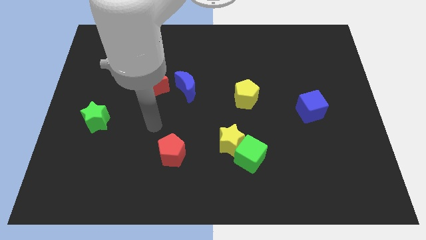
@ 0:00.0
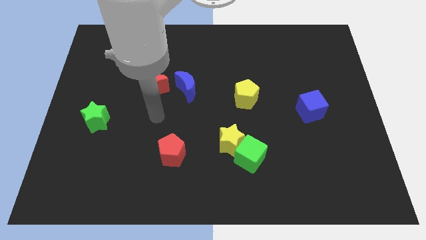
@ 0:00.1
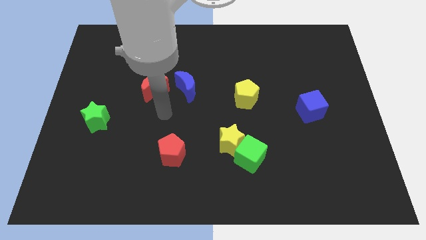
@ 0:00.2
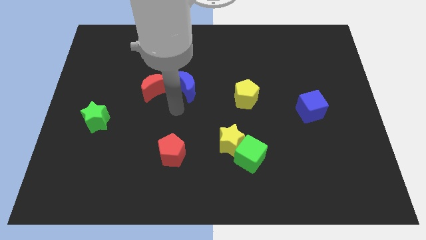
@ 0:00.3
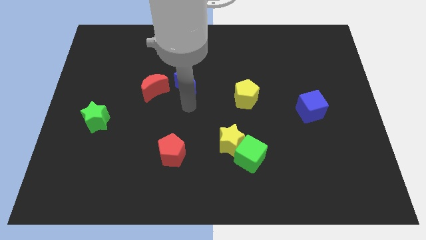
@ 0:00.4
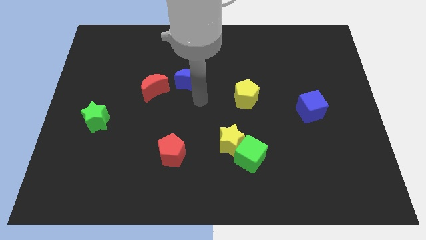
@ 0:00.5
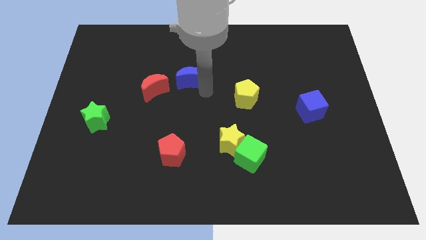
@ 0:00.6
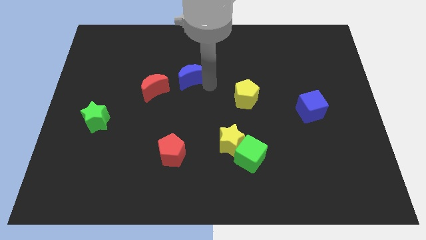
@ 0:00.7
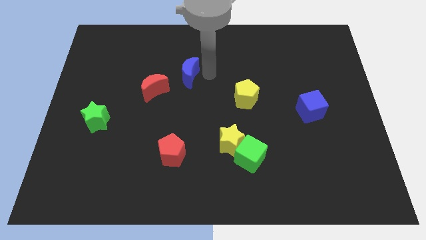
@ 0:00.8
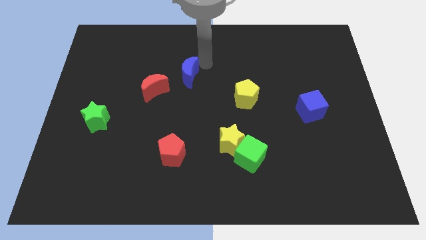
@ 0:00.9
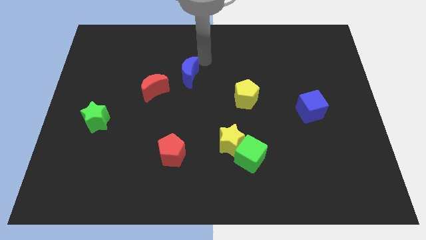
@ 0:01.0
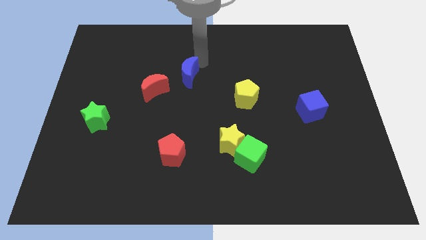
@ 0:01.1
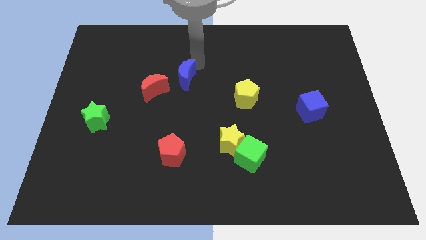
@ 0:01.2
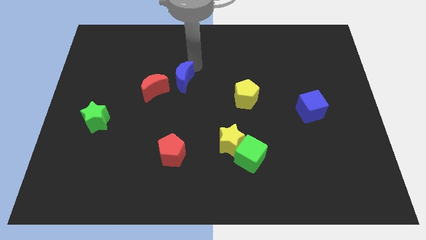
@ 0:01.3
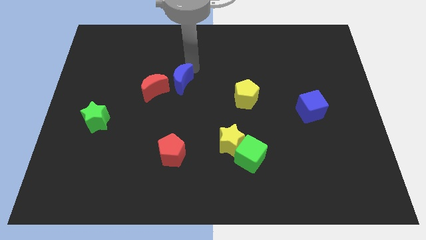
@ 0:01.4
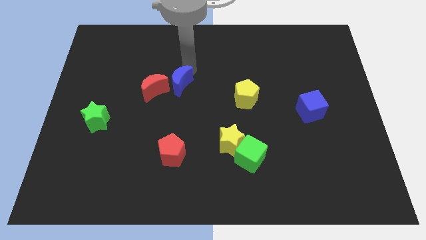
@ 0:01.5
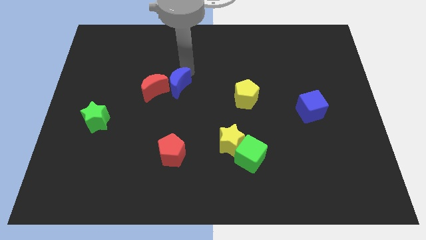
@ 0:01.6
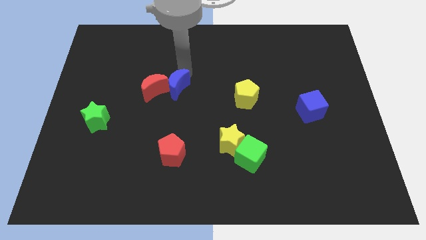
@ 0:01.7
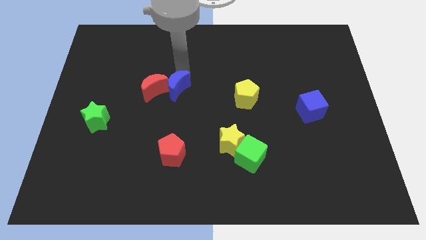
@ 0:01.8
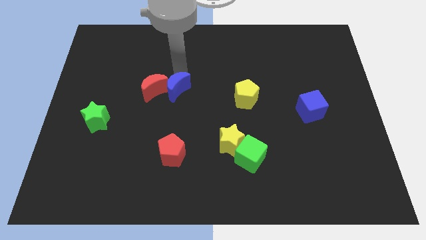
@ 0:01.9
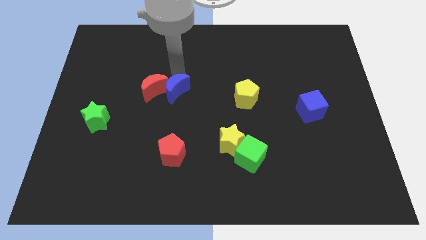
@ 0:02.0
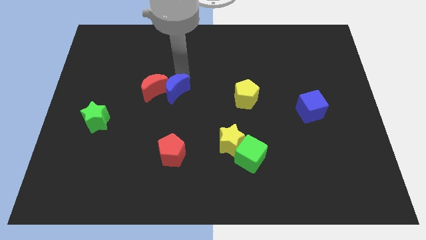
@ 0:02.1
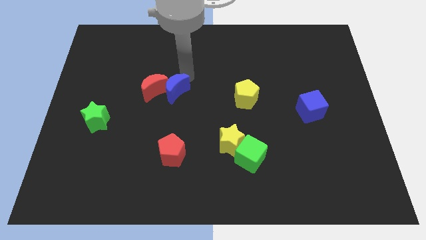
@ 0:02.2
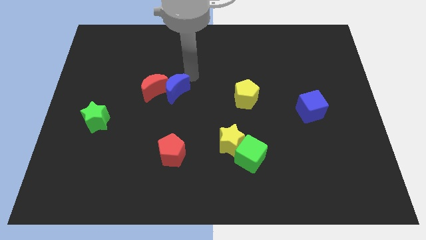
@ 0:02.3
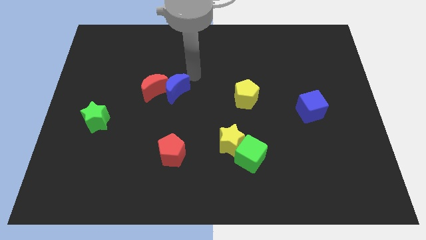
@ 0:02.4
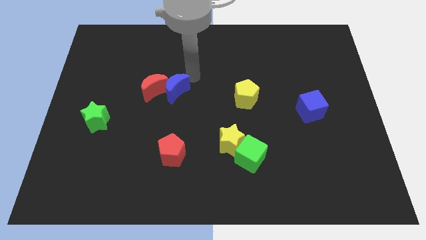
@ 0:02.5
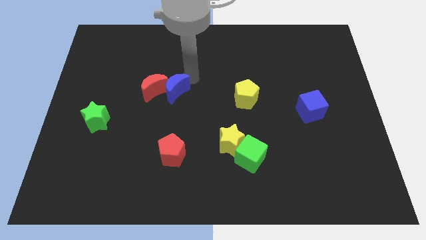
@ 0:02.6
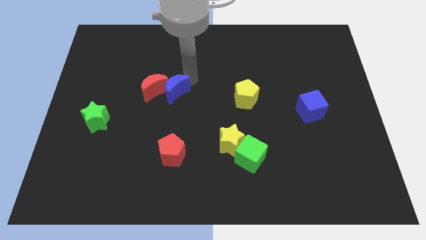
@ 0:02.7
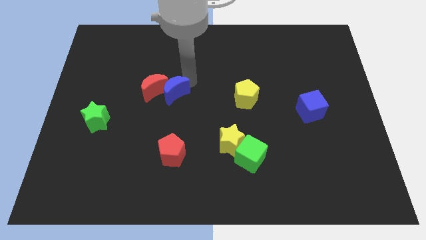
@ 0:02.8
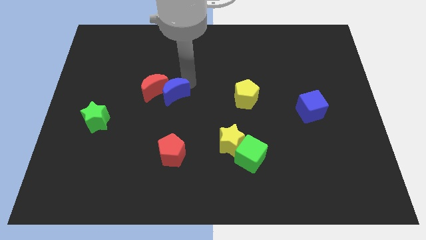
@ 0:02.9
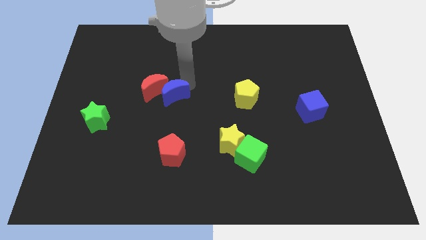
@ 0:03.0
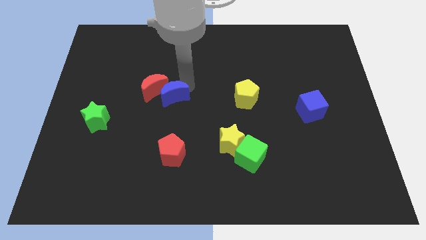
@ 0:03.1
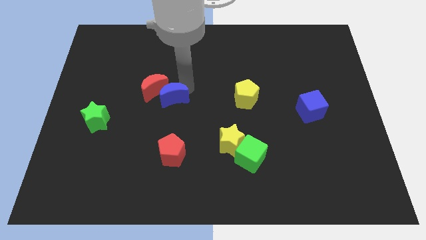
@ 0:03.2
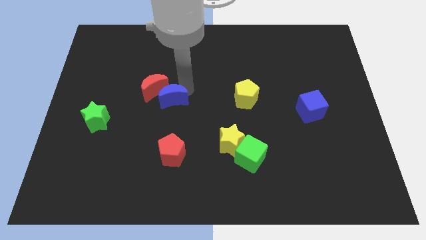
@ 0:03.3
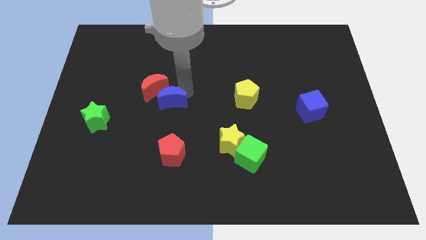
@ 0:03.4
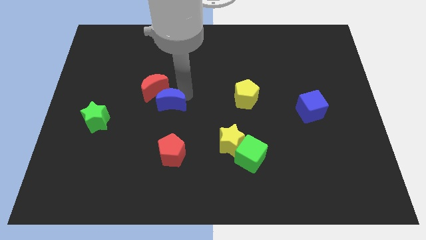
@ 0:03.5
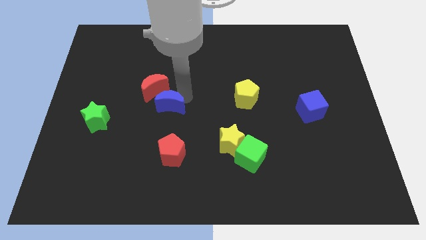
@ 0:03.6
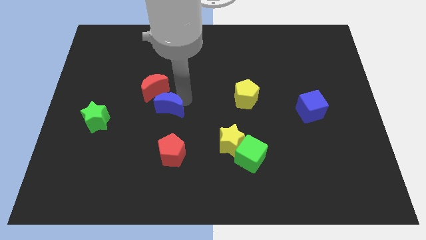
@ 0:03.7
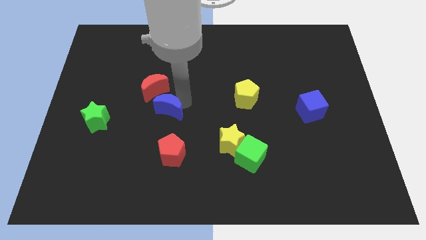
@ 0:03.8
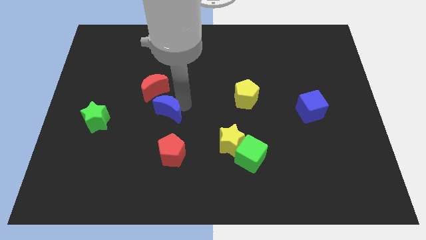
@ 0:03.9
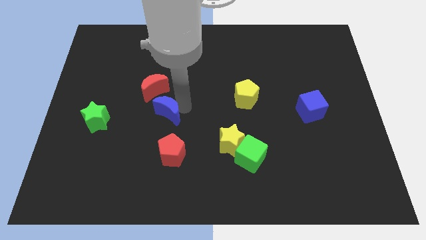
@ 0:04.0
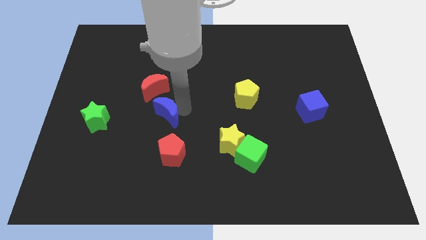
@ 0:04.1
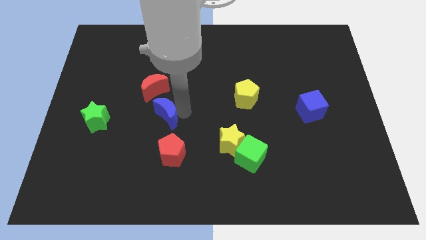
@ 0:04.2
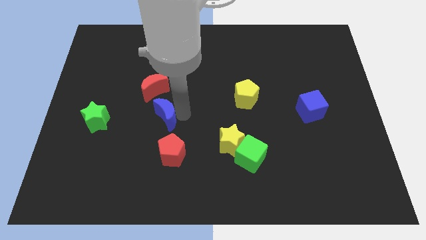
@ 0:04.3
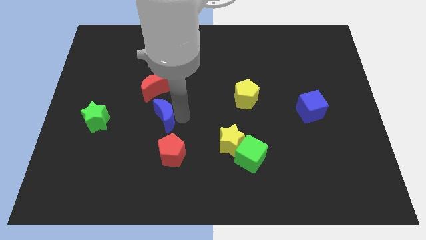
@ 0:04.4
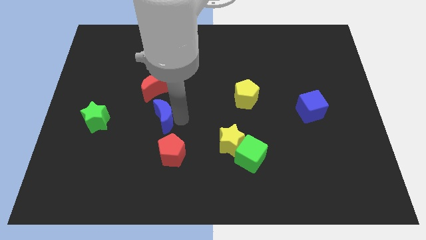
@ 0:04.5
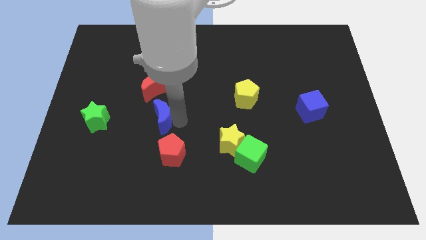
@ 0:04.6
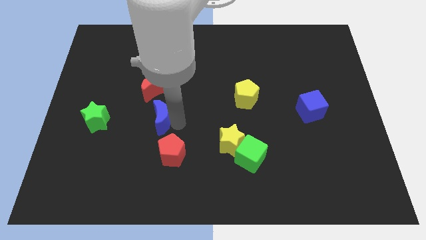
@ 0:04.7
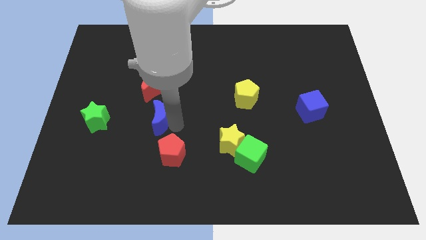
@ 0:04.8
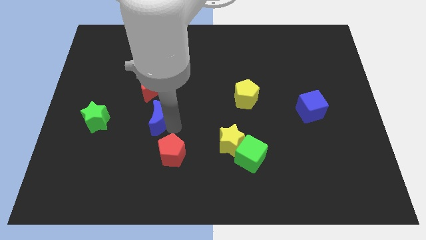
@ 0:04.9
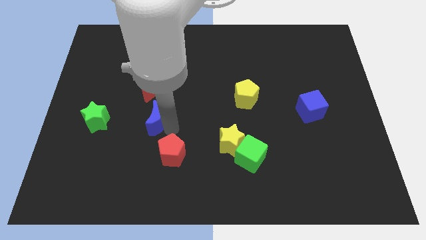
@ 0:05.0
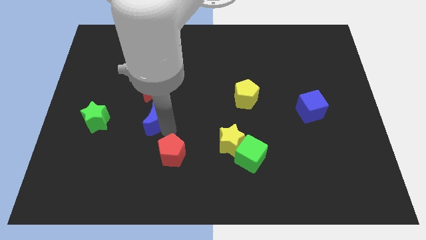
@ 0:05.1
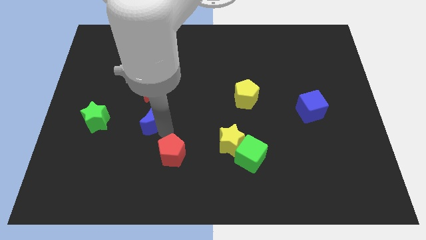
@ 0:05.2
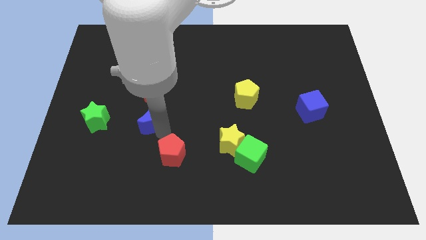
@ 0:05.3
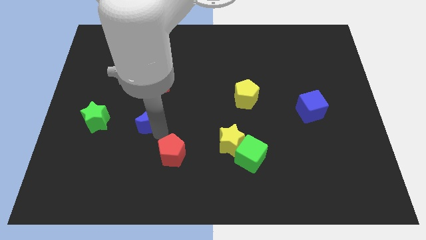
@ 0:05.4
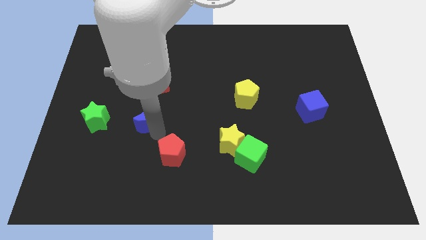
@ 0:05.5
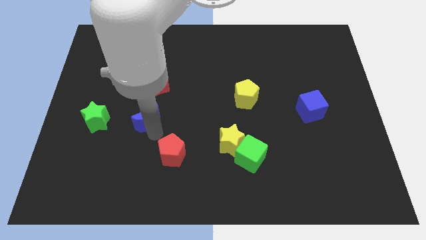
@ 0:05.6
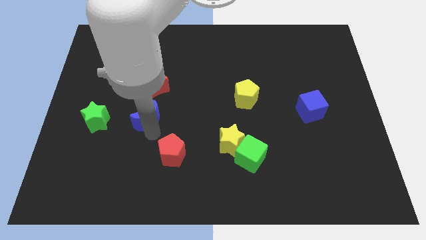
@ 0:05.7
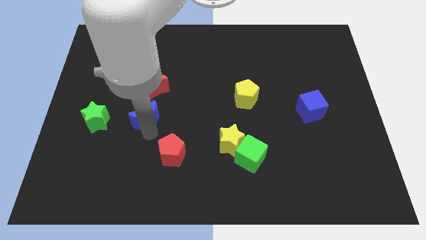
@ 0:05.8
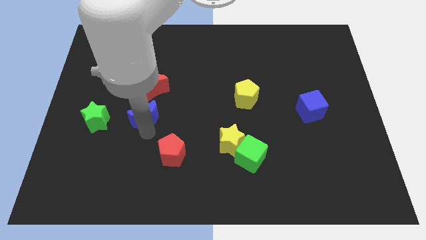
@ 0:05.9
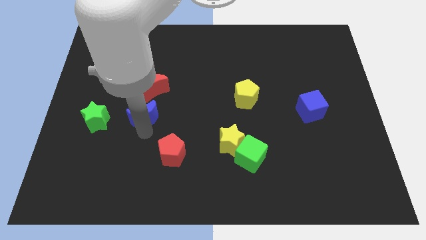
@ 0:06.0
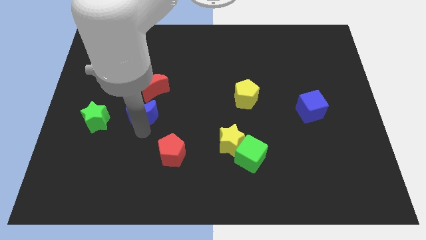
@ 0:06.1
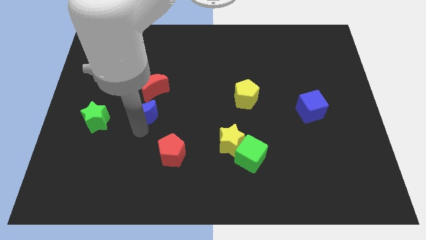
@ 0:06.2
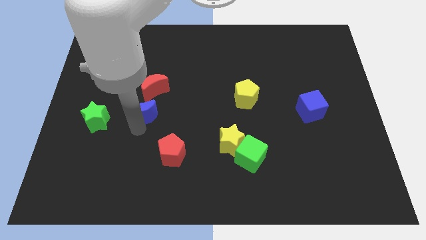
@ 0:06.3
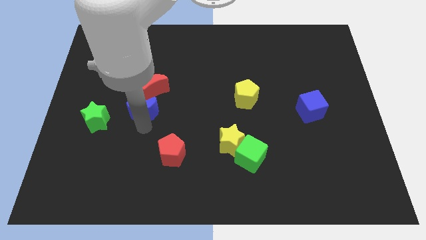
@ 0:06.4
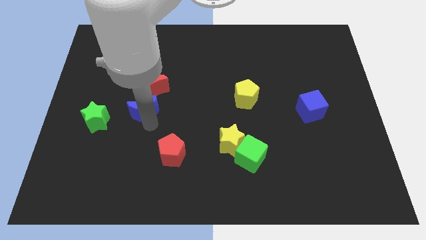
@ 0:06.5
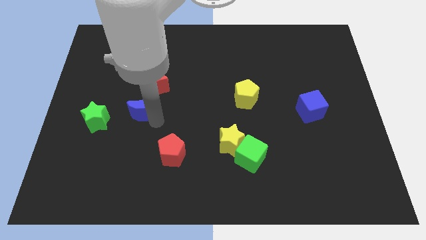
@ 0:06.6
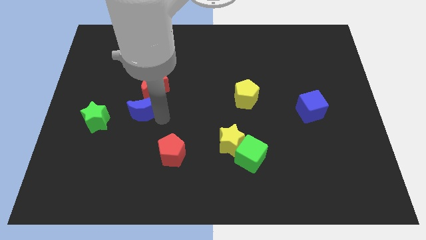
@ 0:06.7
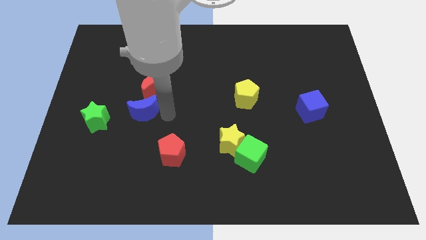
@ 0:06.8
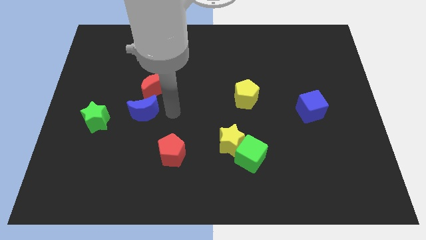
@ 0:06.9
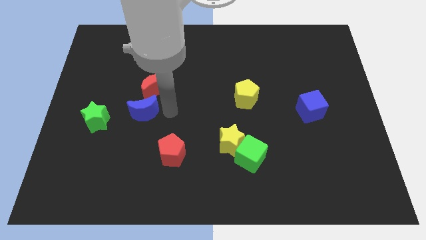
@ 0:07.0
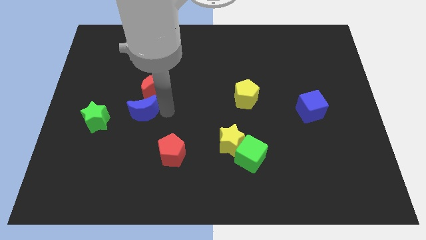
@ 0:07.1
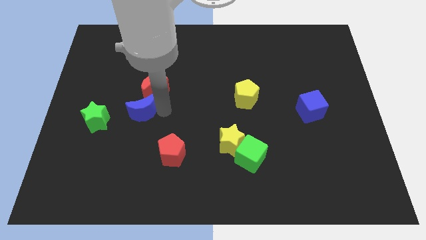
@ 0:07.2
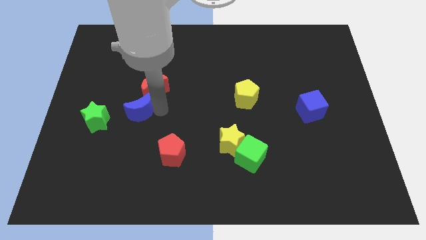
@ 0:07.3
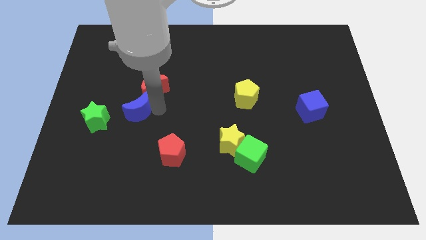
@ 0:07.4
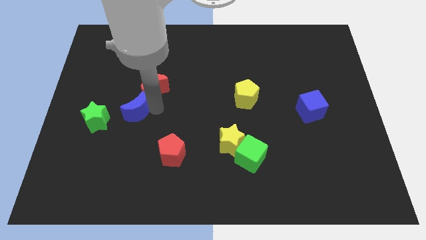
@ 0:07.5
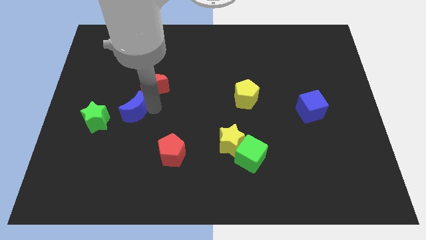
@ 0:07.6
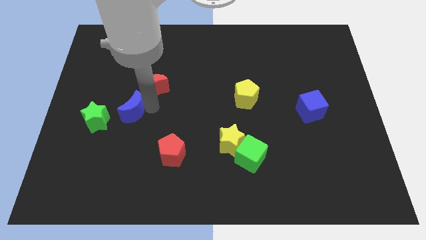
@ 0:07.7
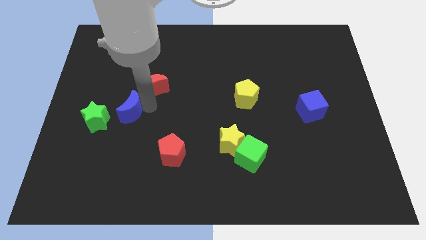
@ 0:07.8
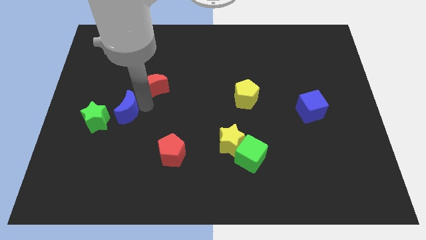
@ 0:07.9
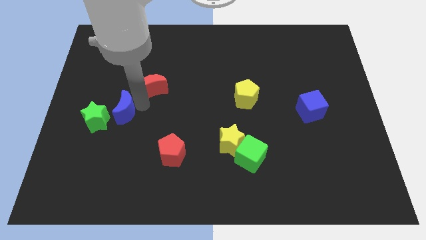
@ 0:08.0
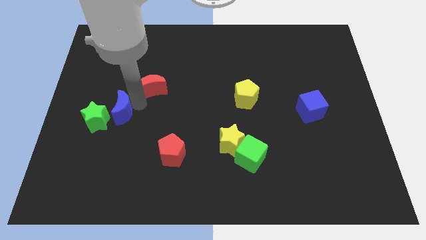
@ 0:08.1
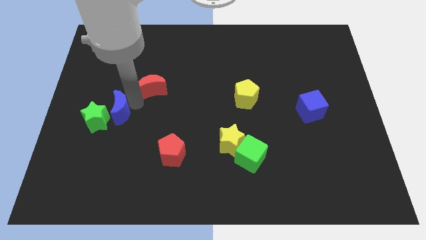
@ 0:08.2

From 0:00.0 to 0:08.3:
put the blue moon towards the green star
